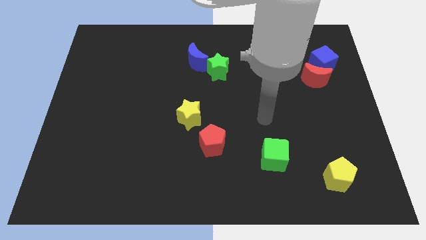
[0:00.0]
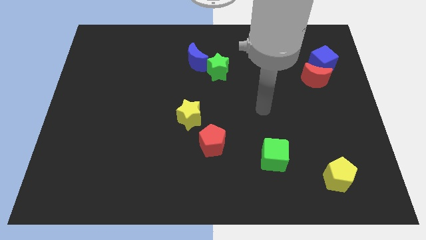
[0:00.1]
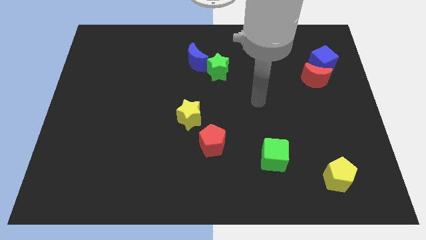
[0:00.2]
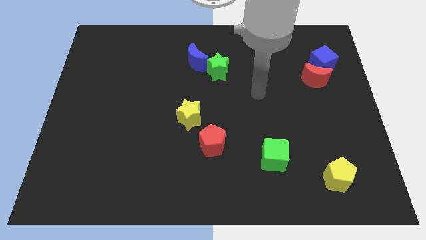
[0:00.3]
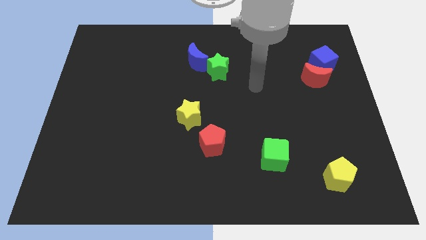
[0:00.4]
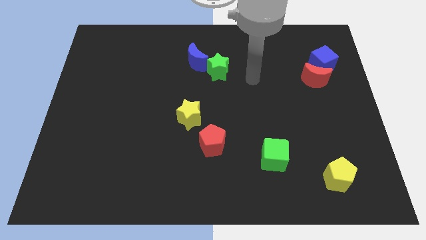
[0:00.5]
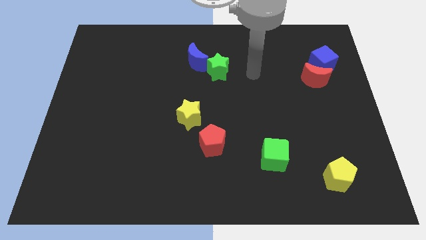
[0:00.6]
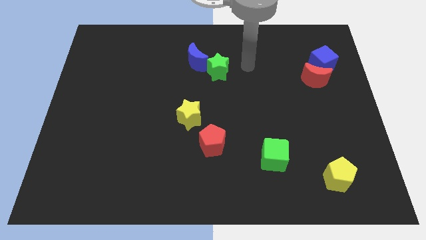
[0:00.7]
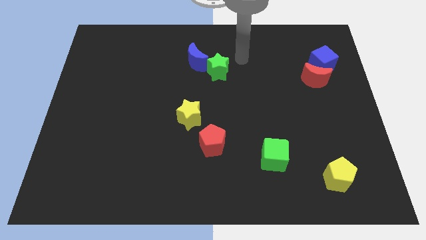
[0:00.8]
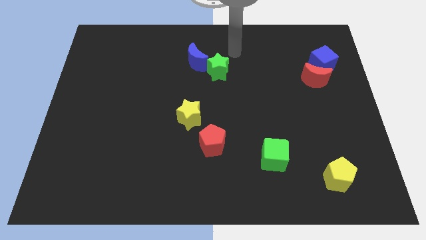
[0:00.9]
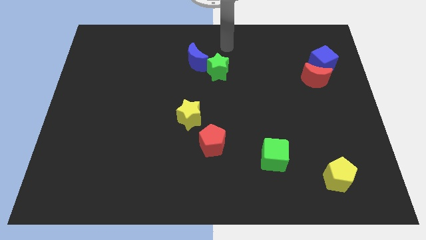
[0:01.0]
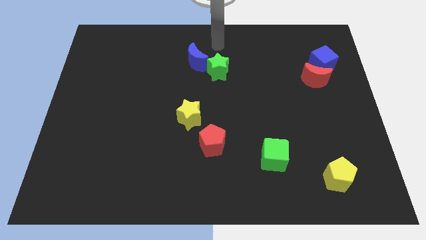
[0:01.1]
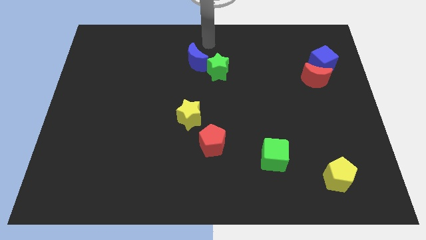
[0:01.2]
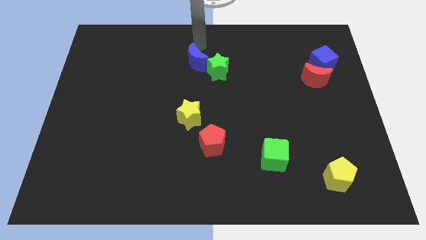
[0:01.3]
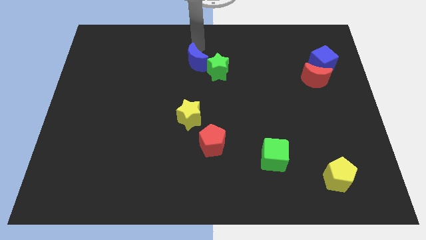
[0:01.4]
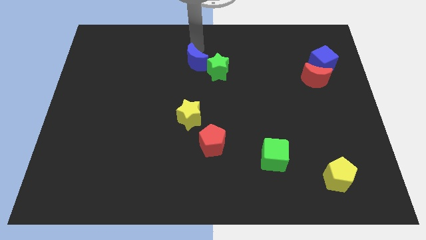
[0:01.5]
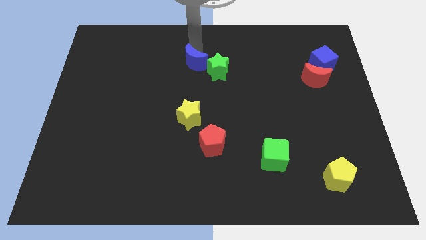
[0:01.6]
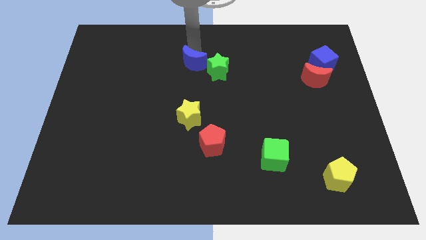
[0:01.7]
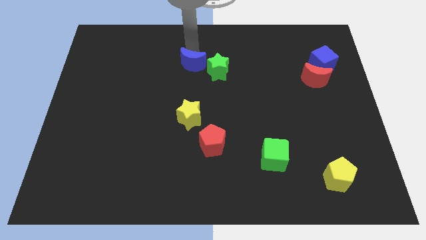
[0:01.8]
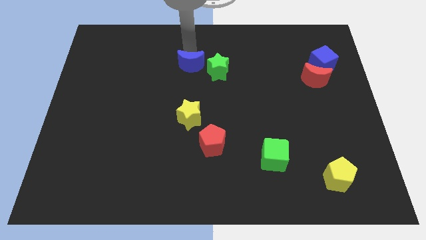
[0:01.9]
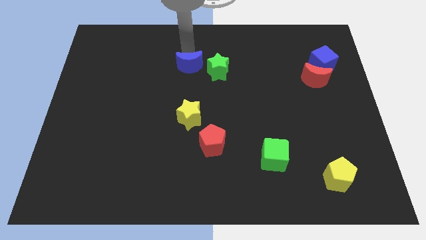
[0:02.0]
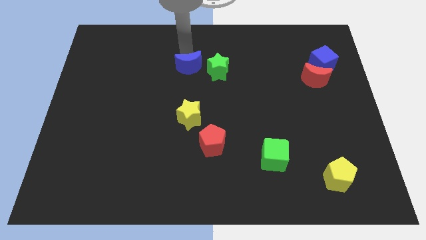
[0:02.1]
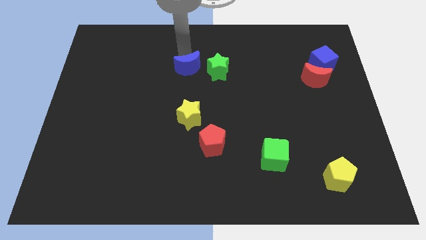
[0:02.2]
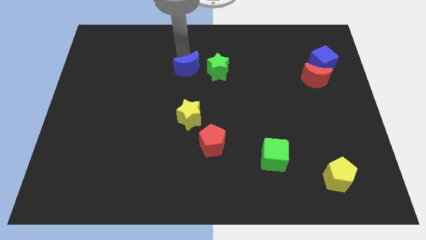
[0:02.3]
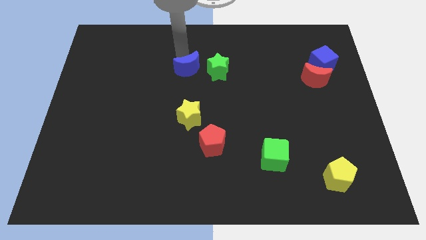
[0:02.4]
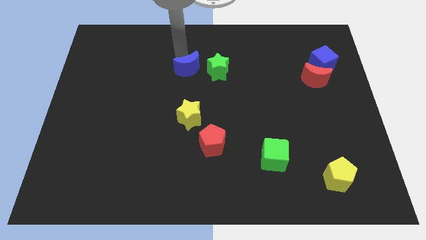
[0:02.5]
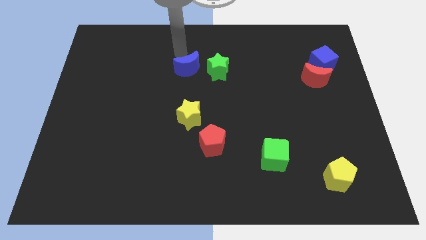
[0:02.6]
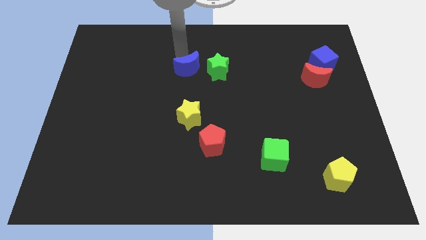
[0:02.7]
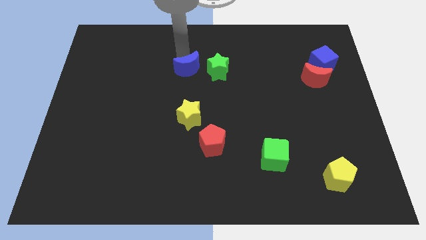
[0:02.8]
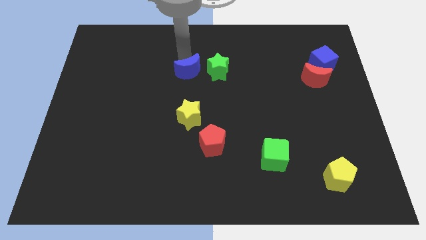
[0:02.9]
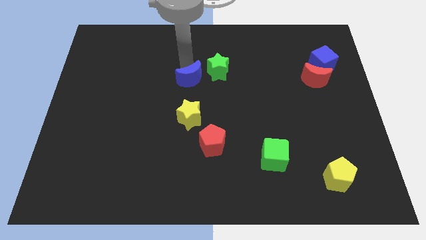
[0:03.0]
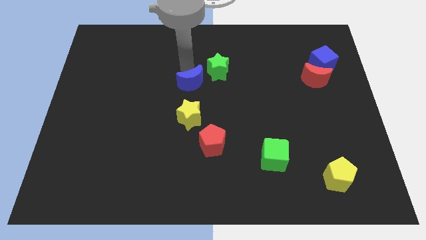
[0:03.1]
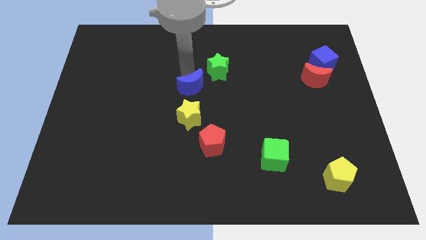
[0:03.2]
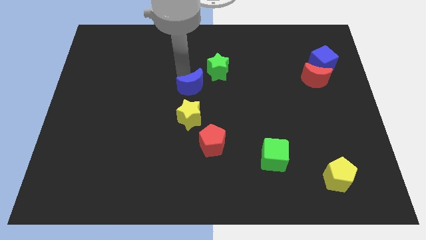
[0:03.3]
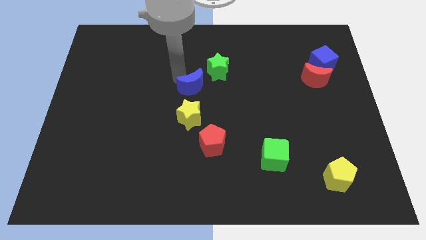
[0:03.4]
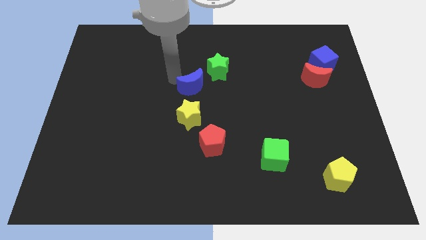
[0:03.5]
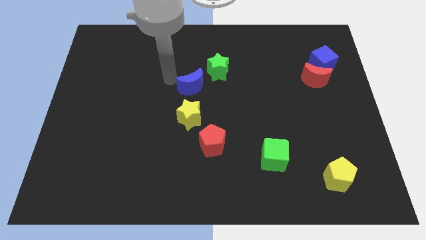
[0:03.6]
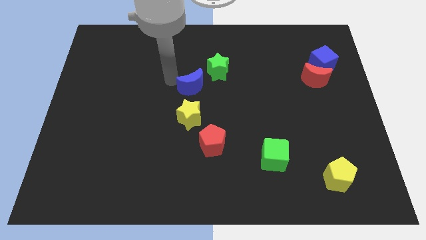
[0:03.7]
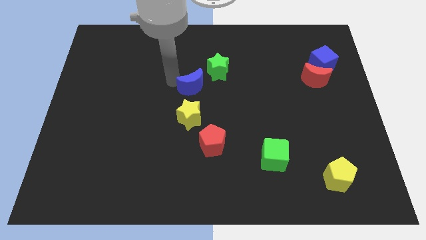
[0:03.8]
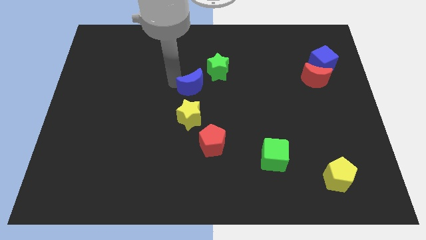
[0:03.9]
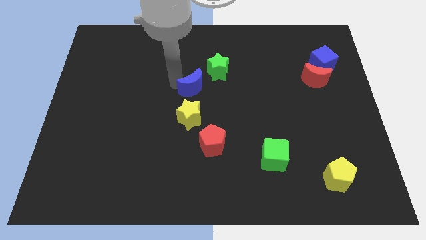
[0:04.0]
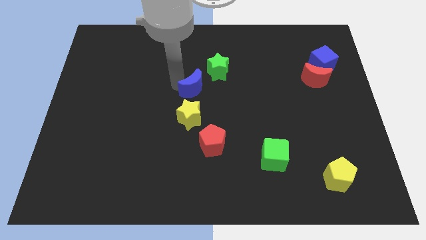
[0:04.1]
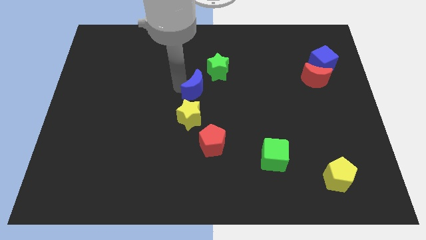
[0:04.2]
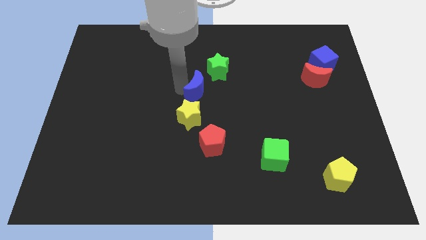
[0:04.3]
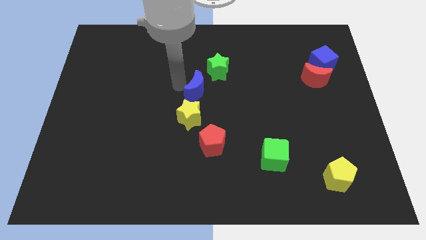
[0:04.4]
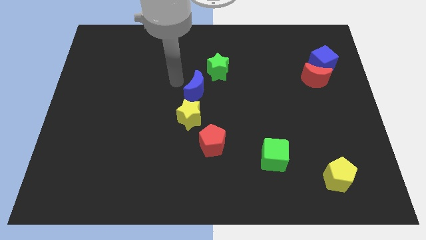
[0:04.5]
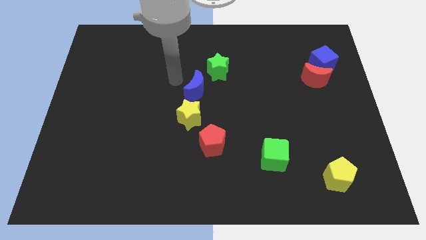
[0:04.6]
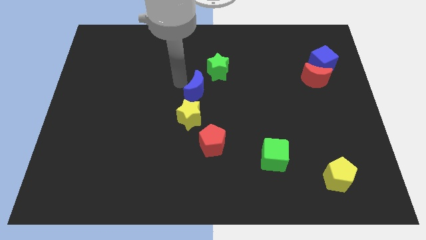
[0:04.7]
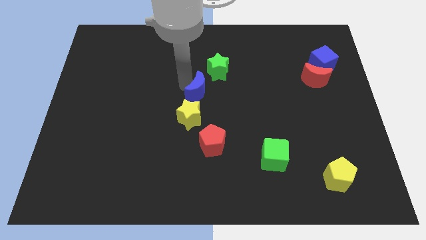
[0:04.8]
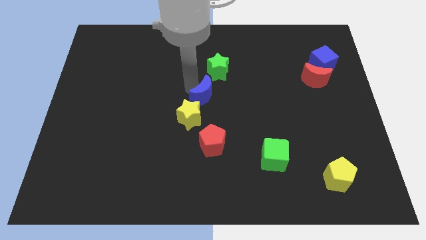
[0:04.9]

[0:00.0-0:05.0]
move the blue moon to the bottom of the green star

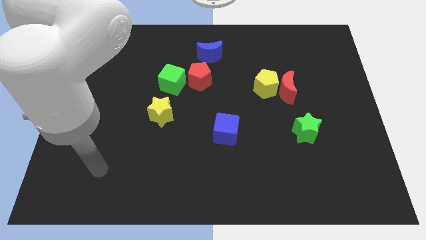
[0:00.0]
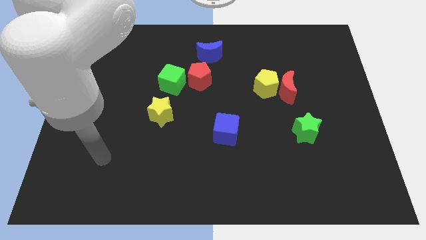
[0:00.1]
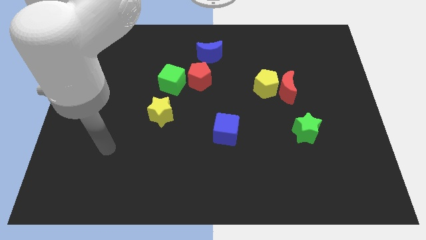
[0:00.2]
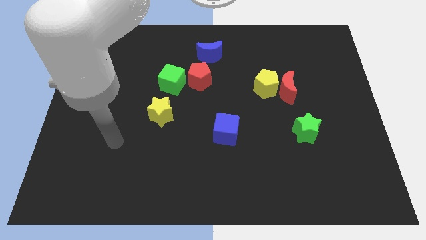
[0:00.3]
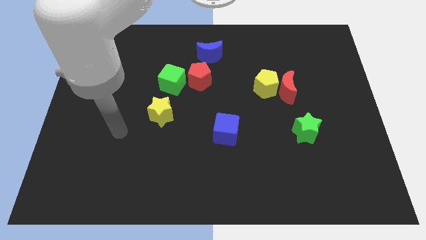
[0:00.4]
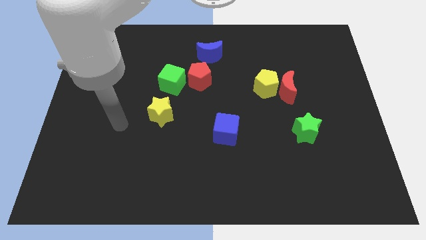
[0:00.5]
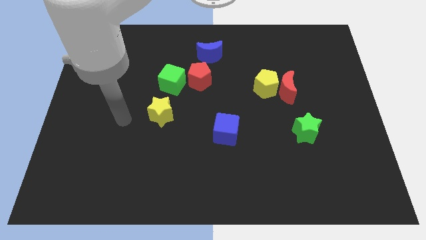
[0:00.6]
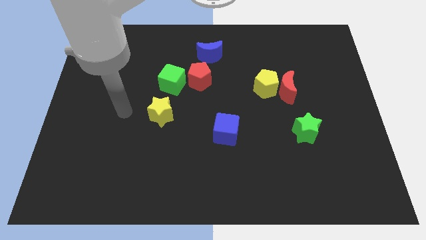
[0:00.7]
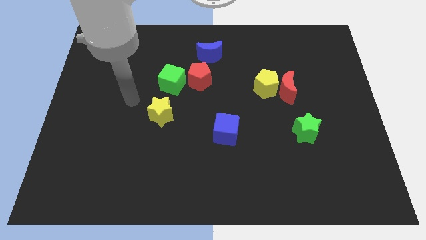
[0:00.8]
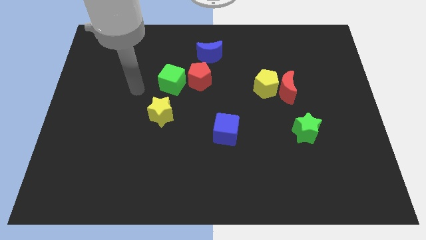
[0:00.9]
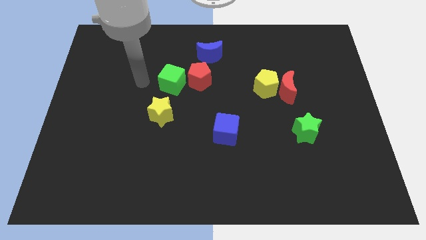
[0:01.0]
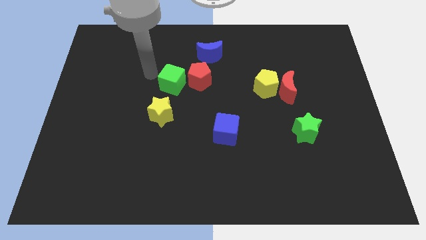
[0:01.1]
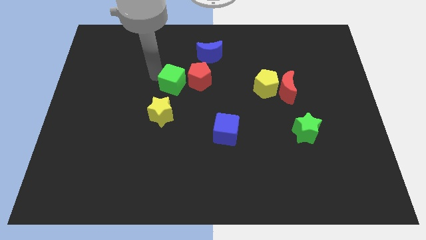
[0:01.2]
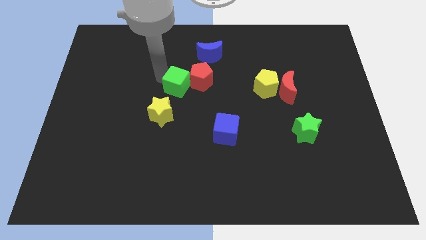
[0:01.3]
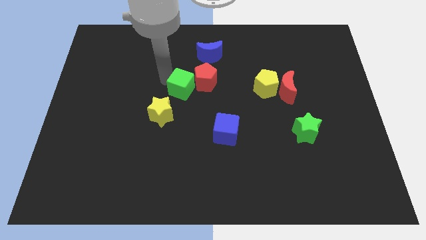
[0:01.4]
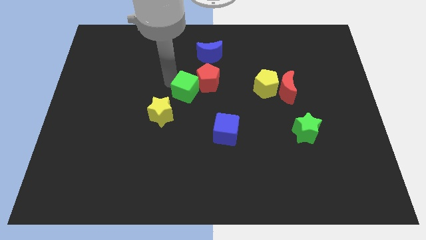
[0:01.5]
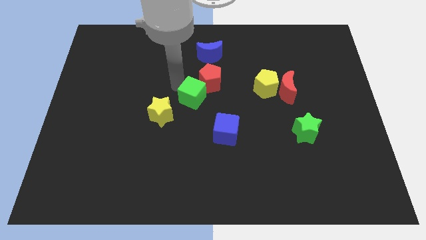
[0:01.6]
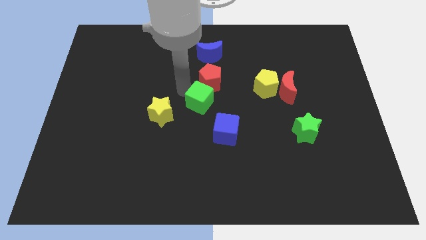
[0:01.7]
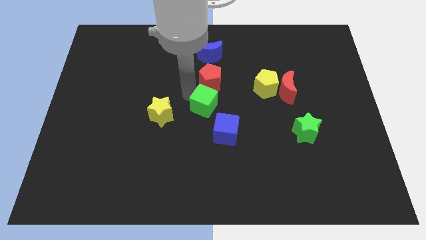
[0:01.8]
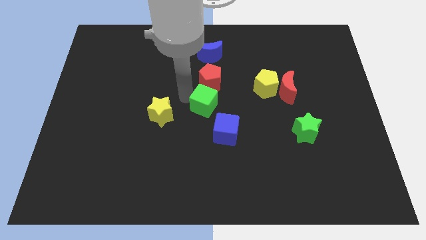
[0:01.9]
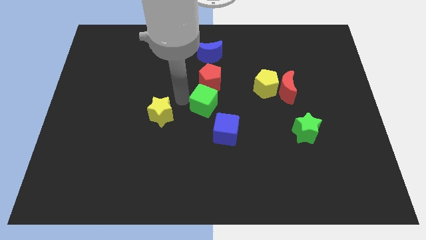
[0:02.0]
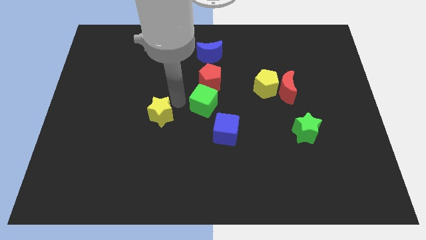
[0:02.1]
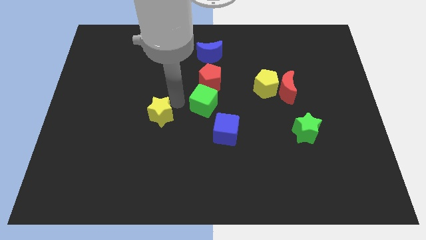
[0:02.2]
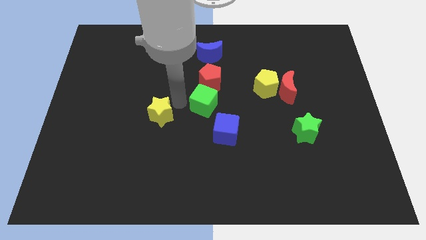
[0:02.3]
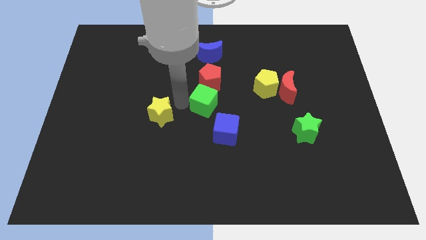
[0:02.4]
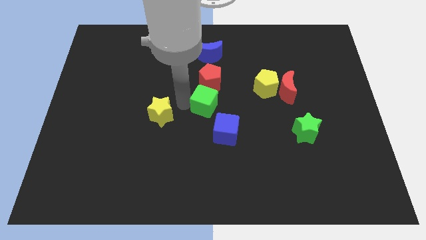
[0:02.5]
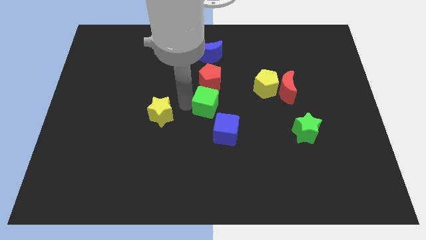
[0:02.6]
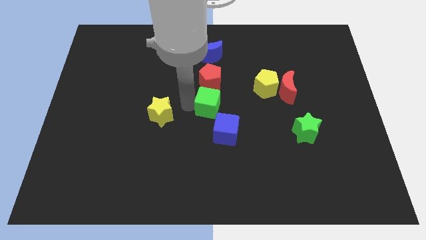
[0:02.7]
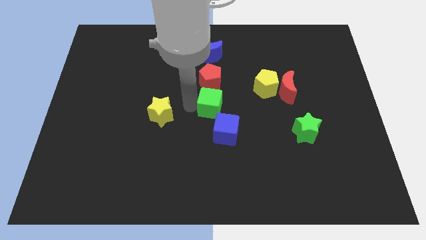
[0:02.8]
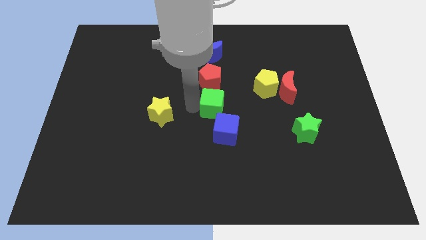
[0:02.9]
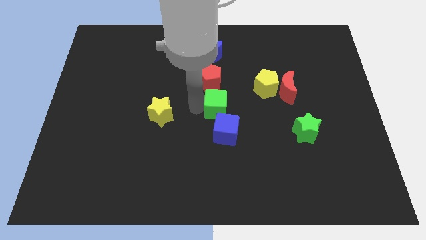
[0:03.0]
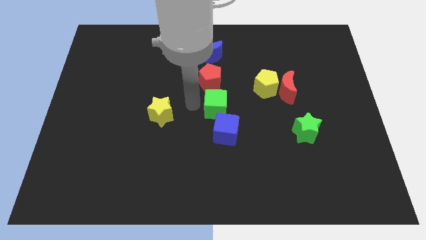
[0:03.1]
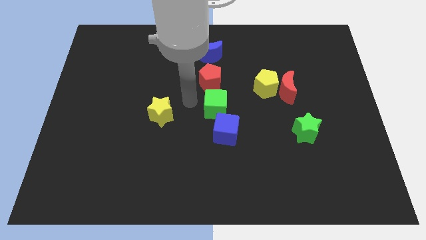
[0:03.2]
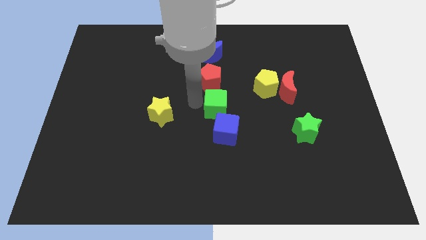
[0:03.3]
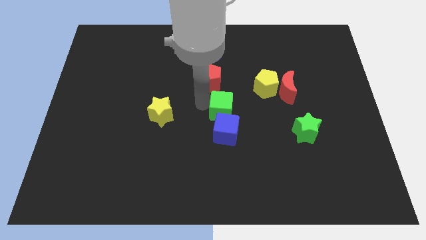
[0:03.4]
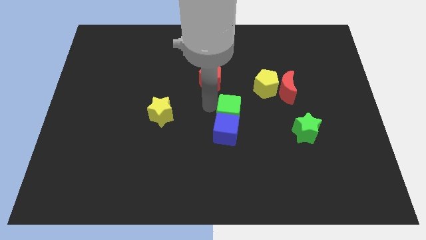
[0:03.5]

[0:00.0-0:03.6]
push the green cube to the top right side of the blue cube
